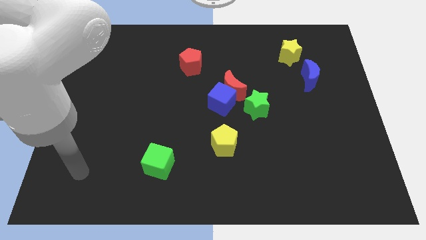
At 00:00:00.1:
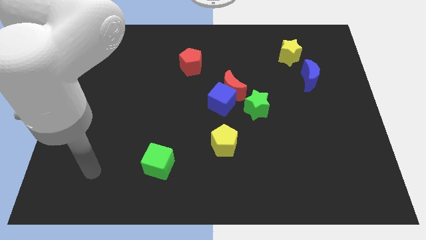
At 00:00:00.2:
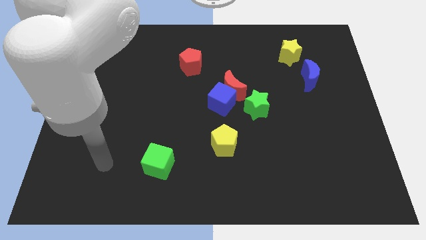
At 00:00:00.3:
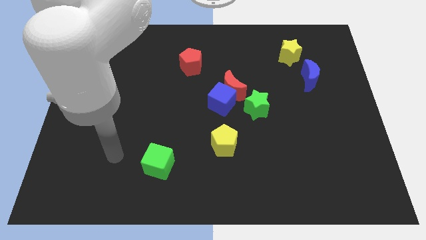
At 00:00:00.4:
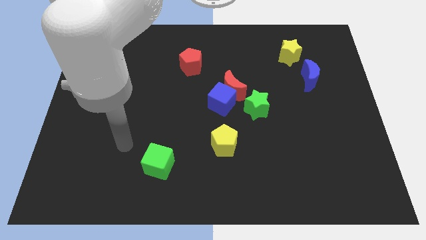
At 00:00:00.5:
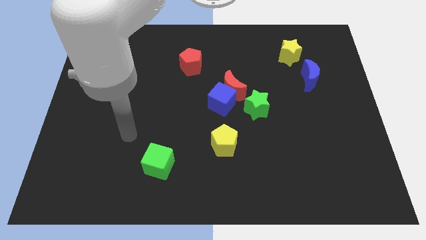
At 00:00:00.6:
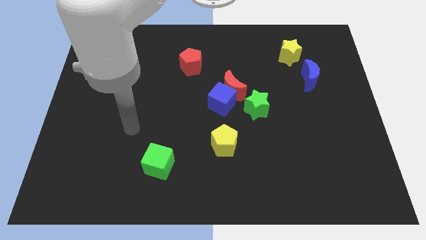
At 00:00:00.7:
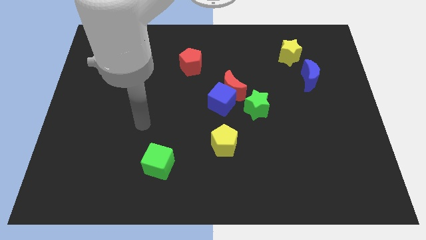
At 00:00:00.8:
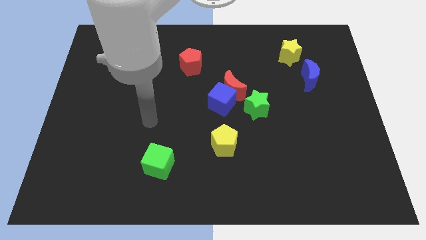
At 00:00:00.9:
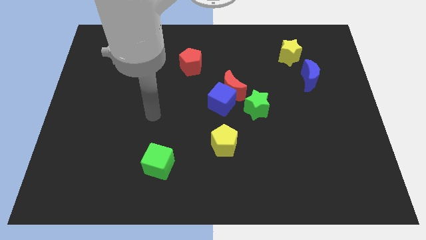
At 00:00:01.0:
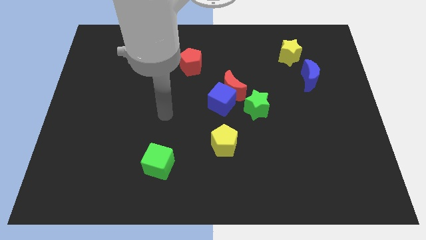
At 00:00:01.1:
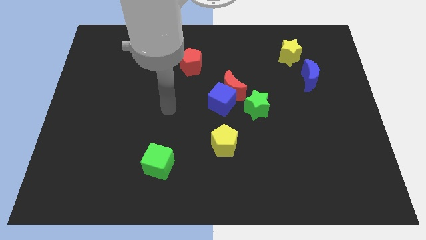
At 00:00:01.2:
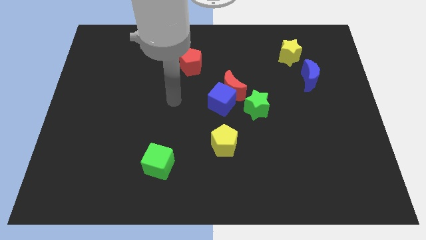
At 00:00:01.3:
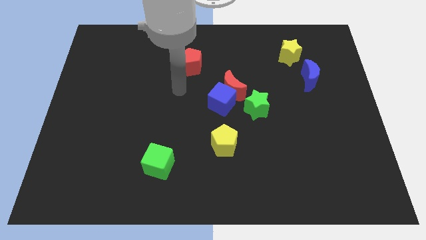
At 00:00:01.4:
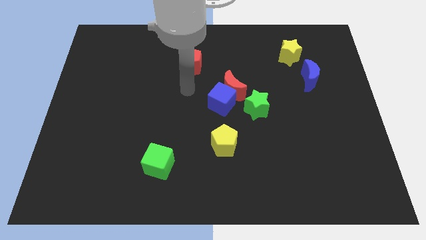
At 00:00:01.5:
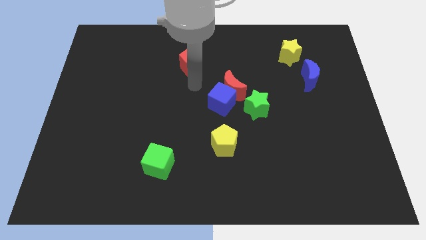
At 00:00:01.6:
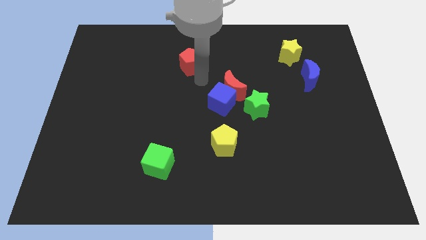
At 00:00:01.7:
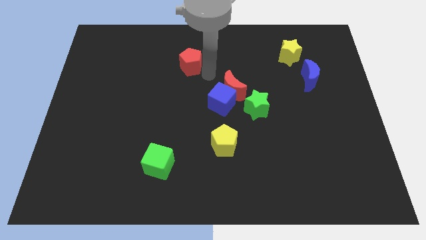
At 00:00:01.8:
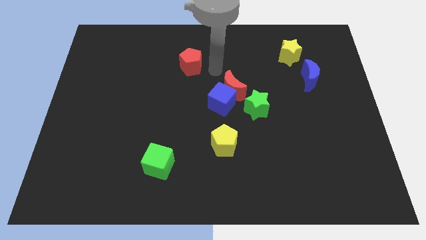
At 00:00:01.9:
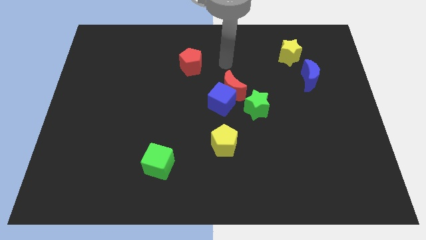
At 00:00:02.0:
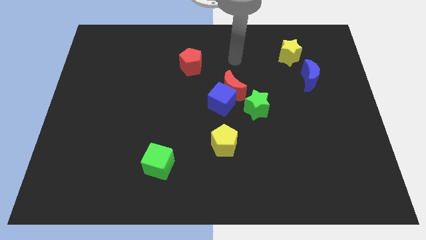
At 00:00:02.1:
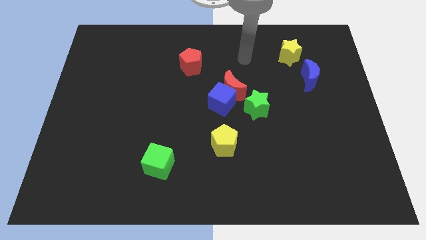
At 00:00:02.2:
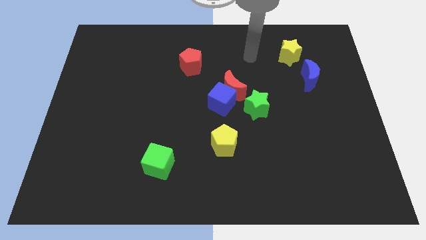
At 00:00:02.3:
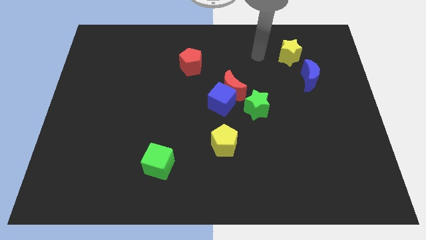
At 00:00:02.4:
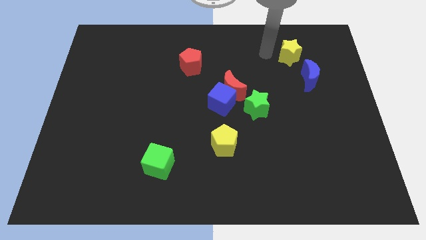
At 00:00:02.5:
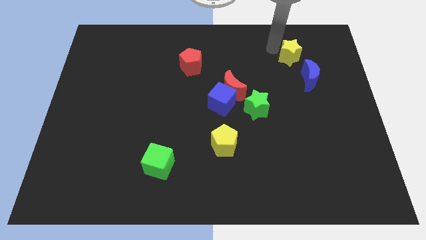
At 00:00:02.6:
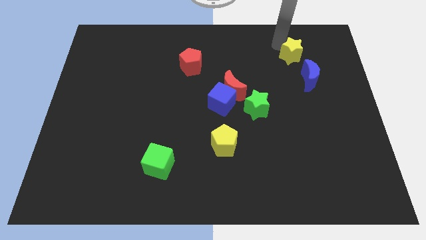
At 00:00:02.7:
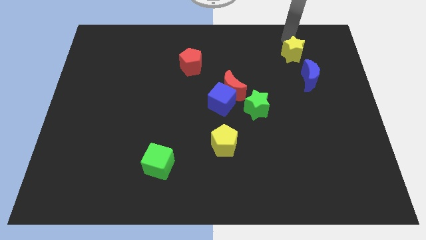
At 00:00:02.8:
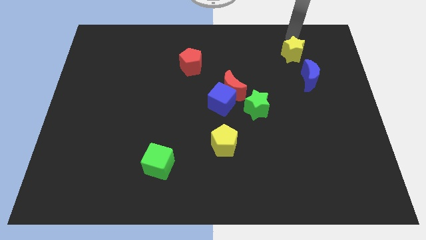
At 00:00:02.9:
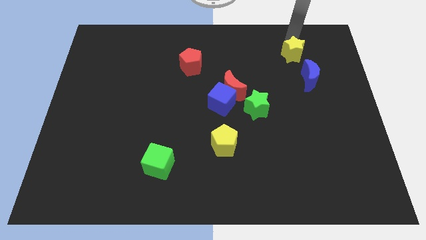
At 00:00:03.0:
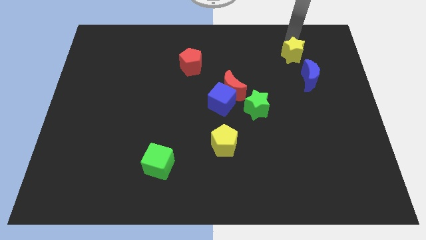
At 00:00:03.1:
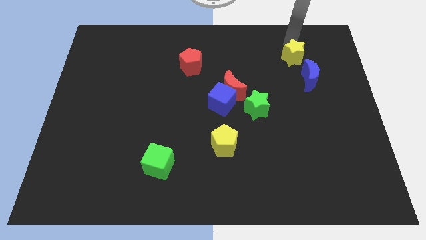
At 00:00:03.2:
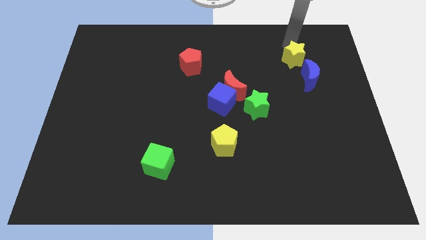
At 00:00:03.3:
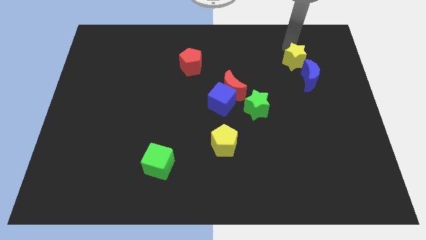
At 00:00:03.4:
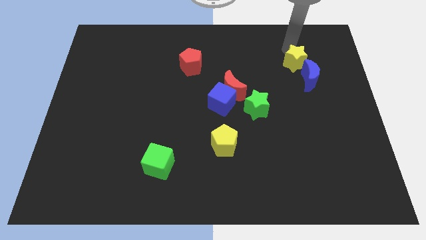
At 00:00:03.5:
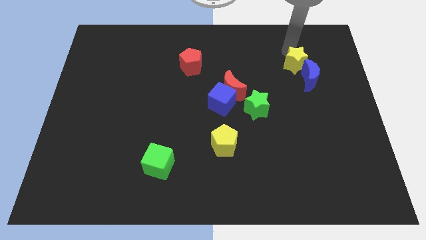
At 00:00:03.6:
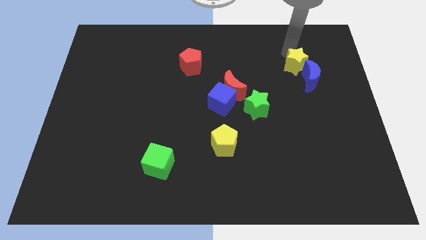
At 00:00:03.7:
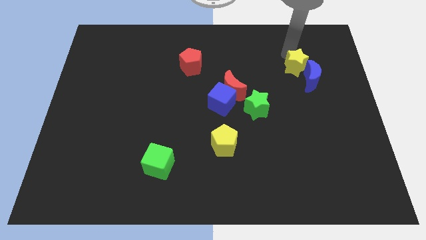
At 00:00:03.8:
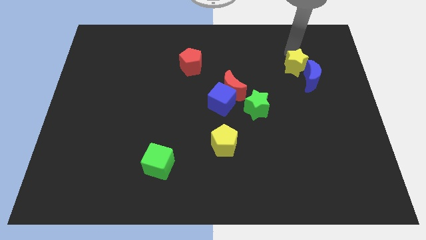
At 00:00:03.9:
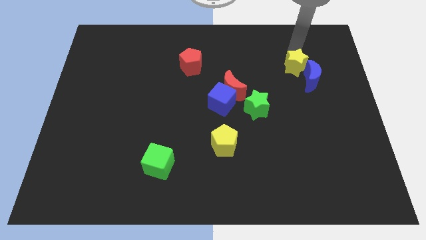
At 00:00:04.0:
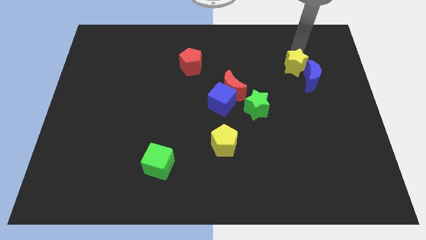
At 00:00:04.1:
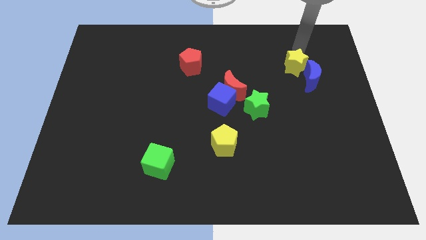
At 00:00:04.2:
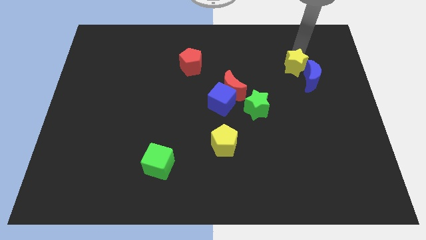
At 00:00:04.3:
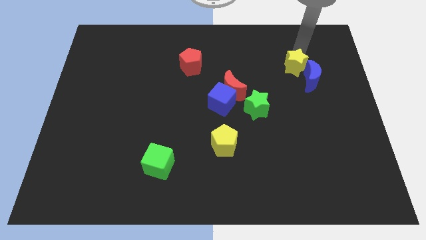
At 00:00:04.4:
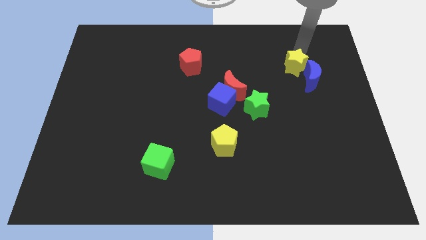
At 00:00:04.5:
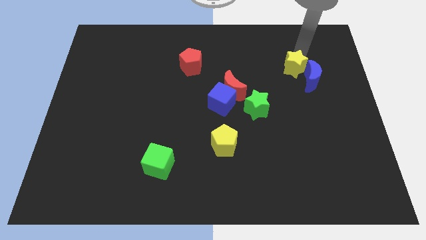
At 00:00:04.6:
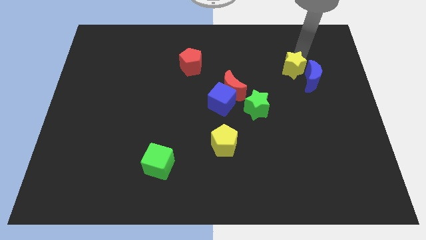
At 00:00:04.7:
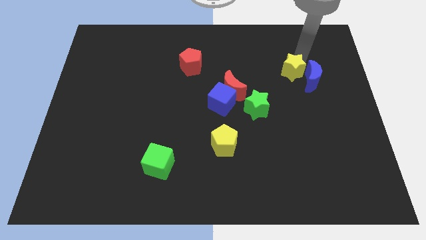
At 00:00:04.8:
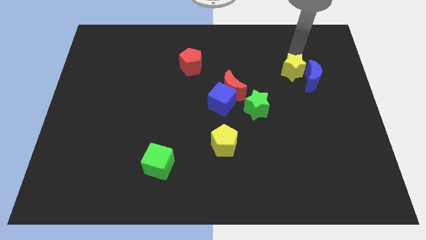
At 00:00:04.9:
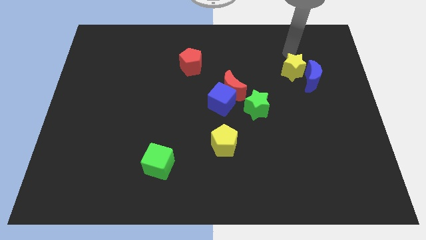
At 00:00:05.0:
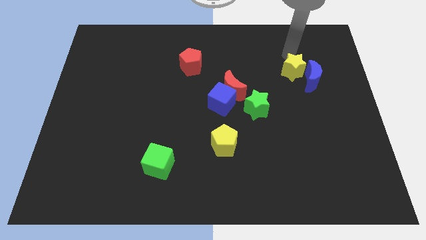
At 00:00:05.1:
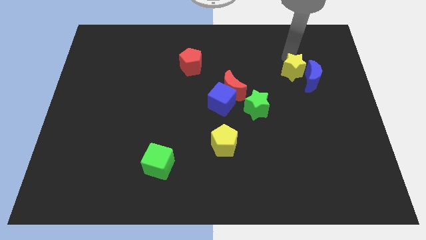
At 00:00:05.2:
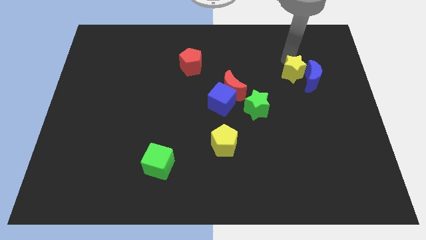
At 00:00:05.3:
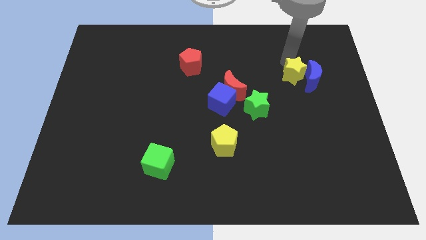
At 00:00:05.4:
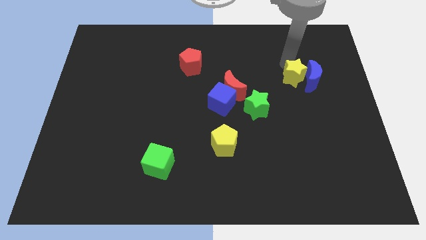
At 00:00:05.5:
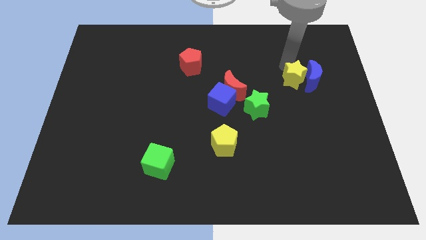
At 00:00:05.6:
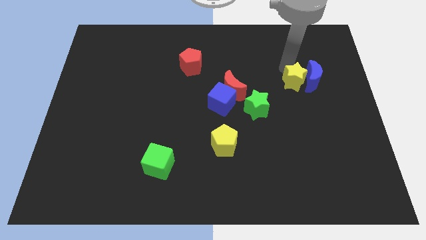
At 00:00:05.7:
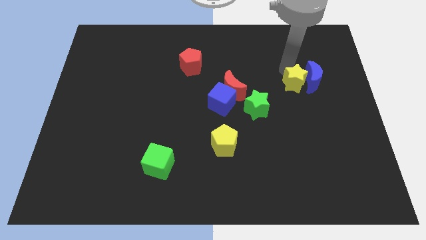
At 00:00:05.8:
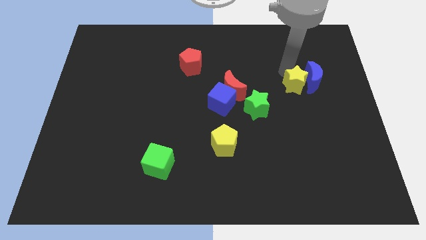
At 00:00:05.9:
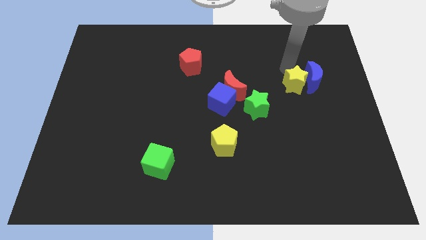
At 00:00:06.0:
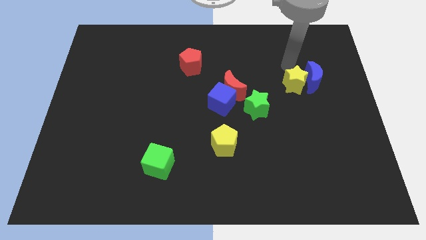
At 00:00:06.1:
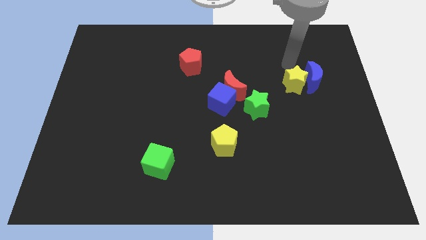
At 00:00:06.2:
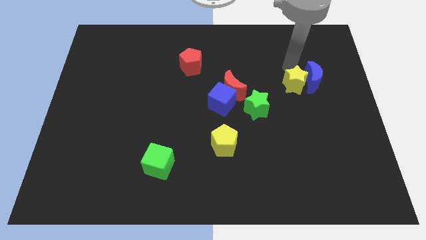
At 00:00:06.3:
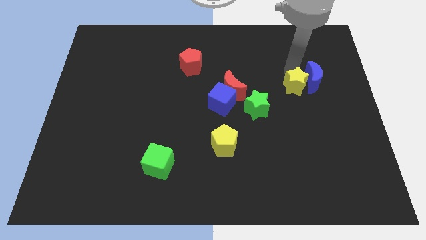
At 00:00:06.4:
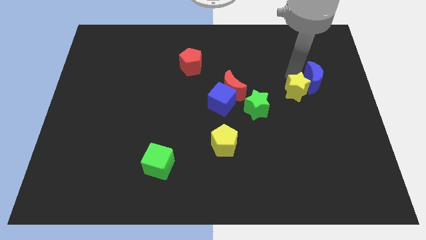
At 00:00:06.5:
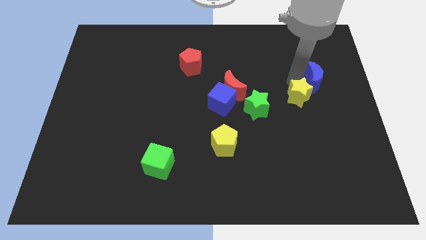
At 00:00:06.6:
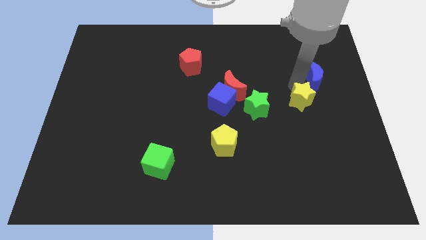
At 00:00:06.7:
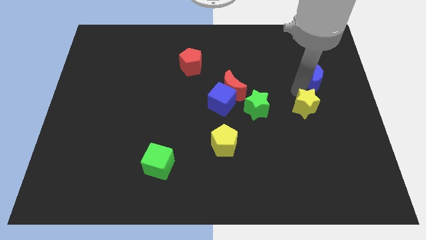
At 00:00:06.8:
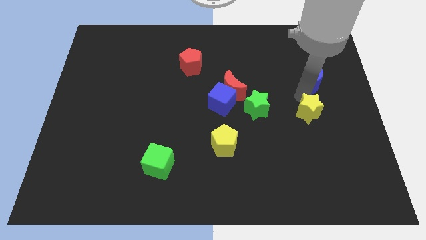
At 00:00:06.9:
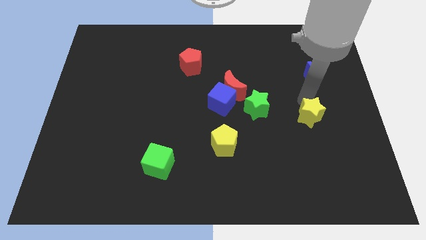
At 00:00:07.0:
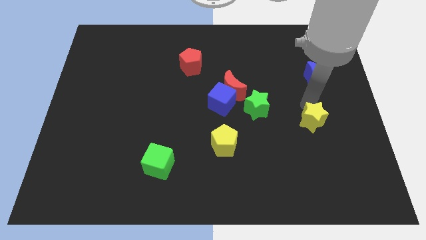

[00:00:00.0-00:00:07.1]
move the yellow star downwards

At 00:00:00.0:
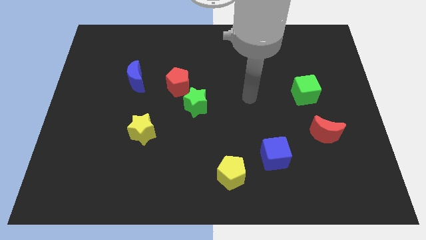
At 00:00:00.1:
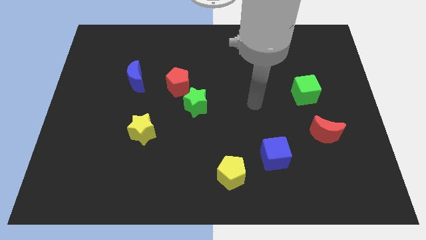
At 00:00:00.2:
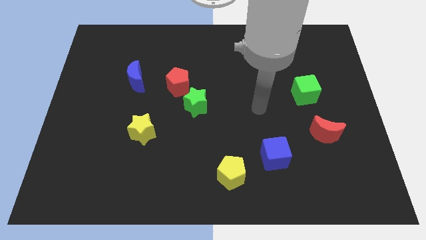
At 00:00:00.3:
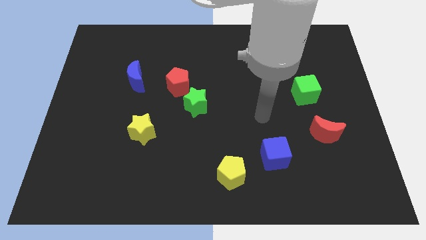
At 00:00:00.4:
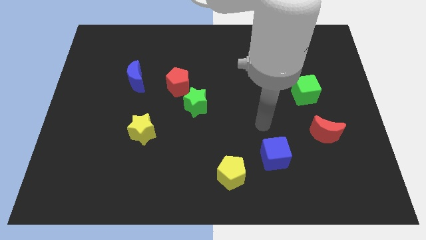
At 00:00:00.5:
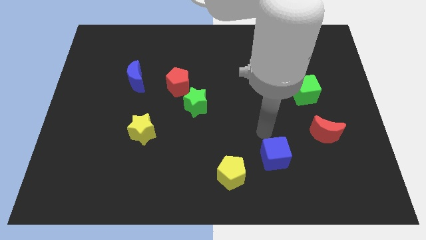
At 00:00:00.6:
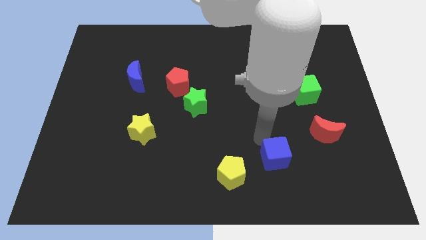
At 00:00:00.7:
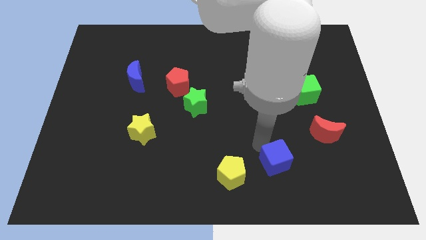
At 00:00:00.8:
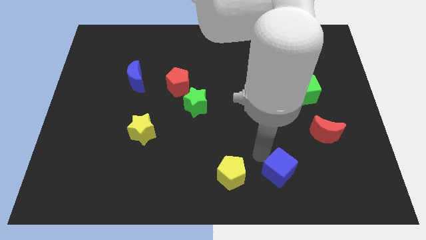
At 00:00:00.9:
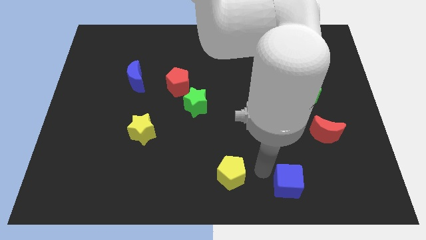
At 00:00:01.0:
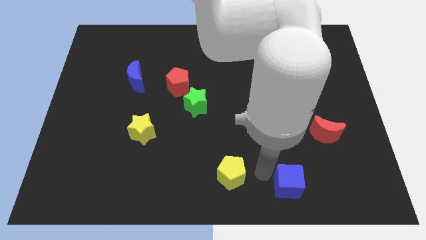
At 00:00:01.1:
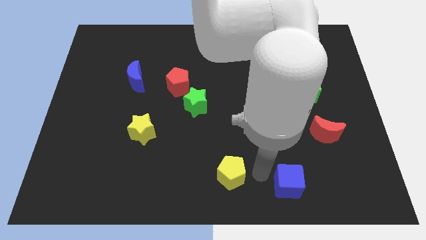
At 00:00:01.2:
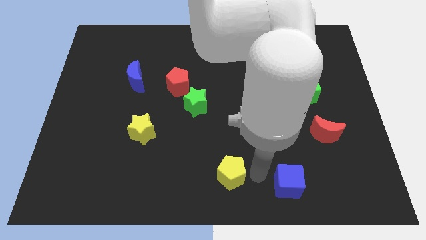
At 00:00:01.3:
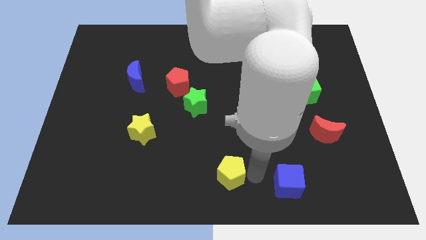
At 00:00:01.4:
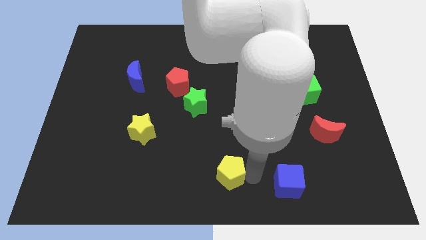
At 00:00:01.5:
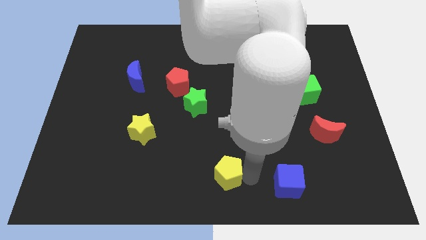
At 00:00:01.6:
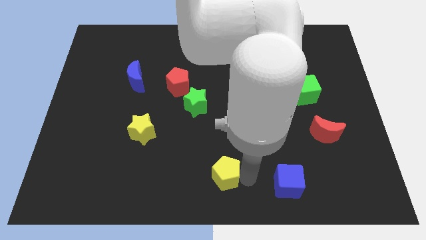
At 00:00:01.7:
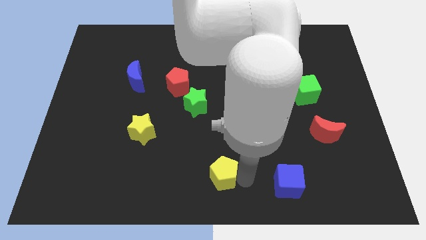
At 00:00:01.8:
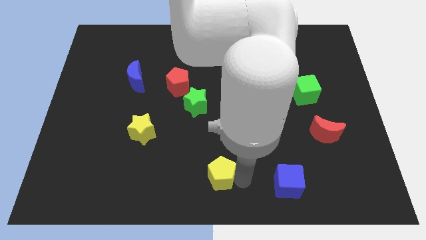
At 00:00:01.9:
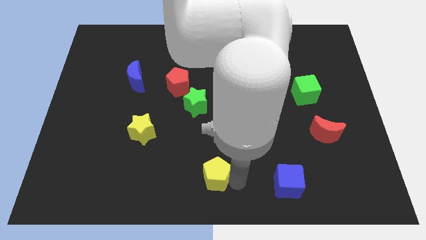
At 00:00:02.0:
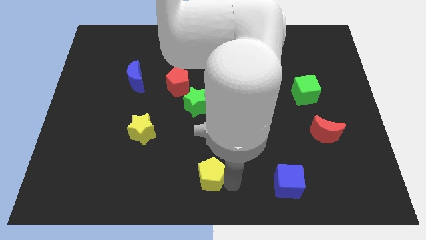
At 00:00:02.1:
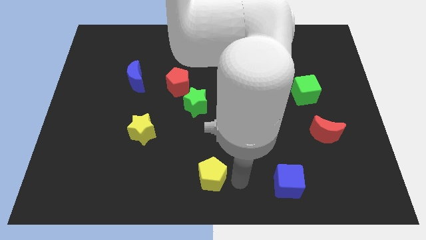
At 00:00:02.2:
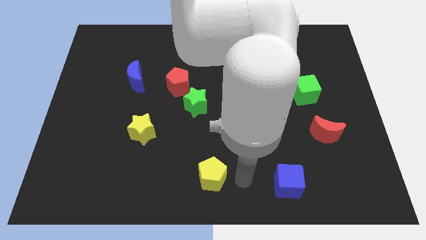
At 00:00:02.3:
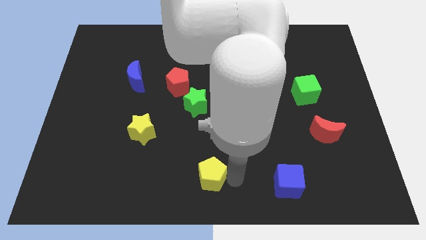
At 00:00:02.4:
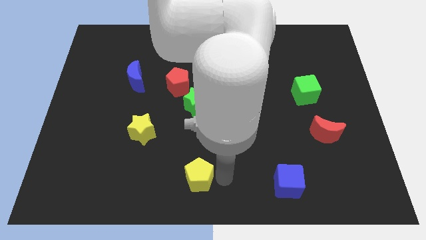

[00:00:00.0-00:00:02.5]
slide the yellow pentagon a little bit to the left
